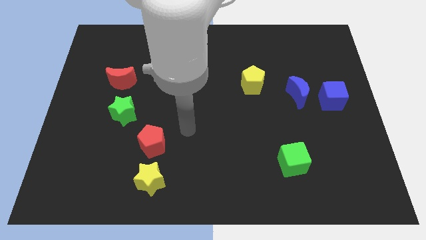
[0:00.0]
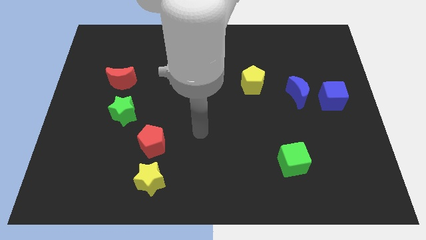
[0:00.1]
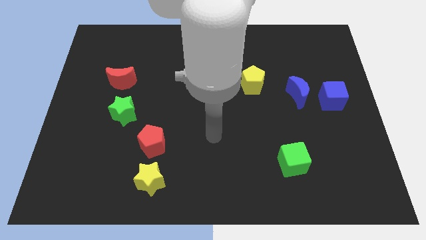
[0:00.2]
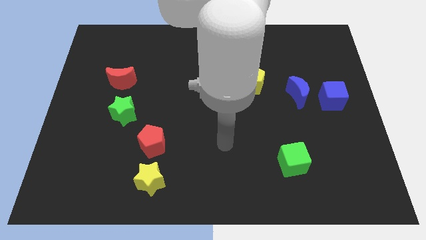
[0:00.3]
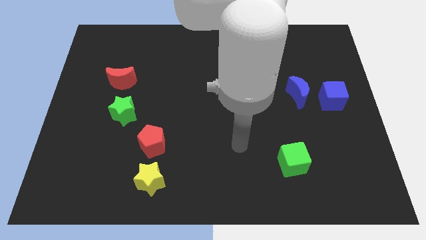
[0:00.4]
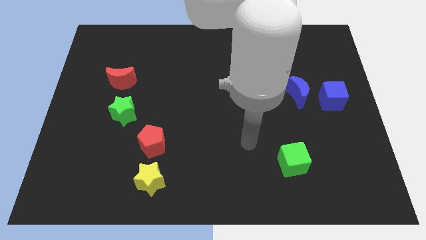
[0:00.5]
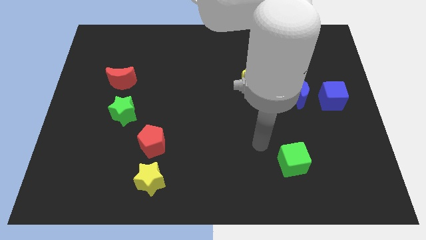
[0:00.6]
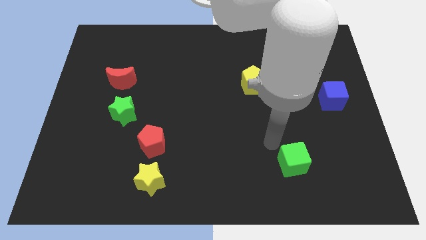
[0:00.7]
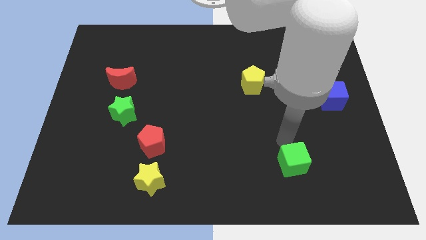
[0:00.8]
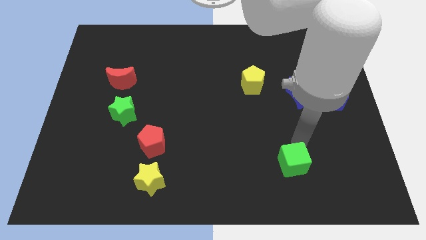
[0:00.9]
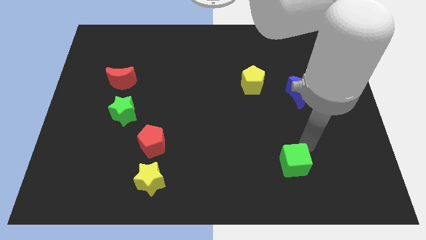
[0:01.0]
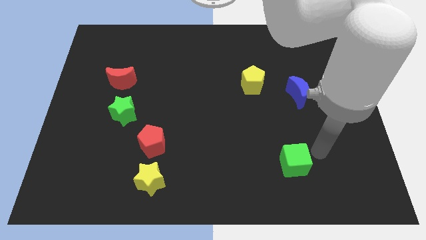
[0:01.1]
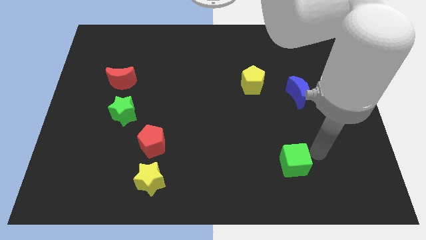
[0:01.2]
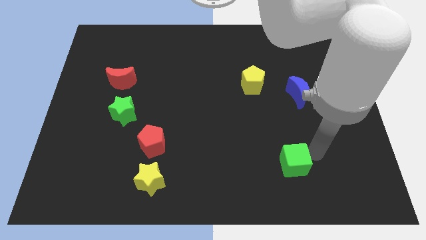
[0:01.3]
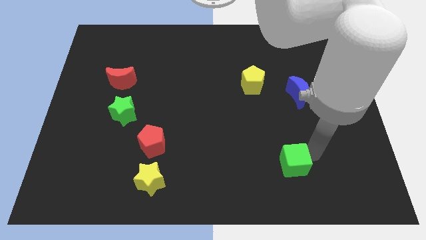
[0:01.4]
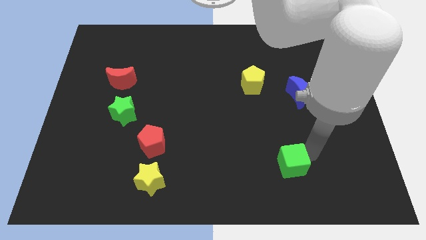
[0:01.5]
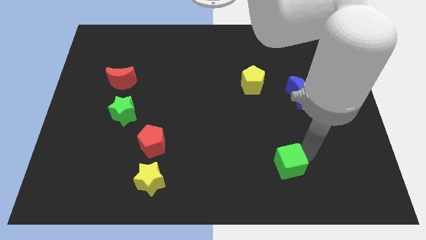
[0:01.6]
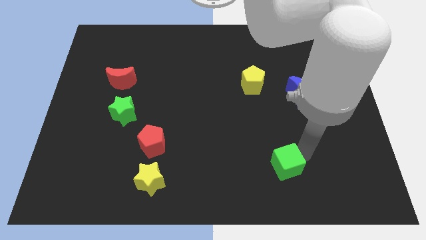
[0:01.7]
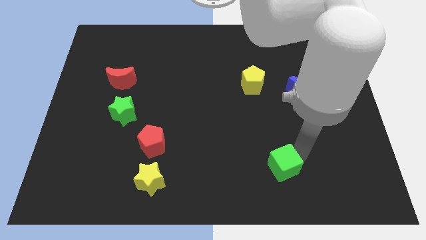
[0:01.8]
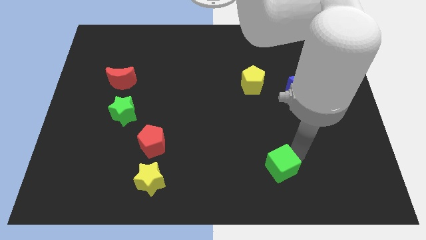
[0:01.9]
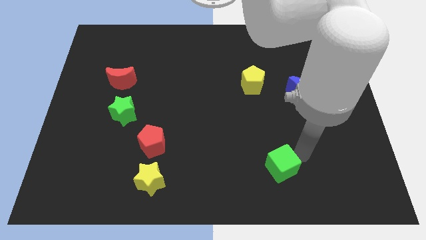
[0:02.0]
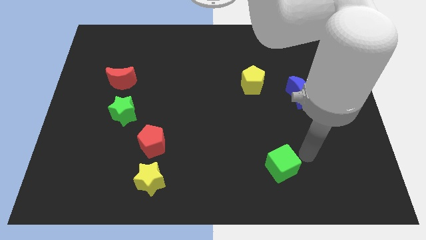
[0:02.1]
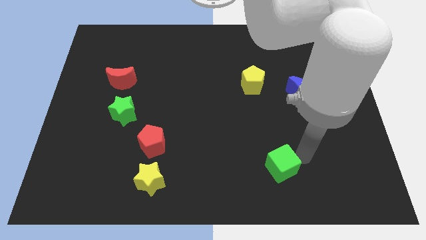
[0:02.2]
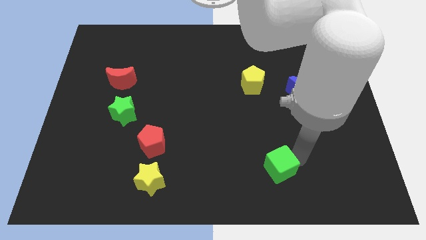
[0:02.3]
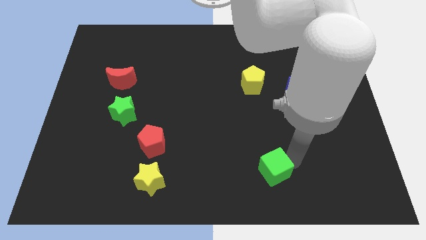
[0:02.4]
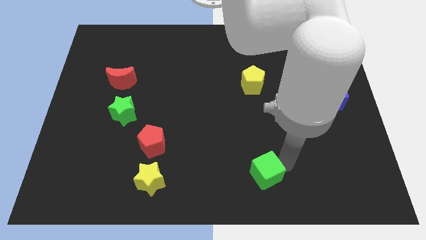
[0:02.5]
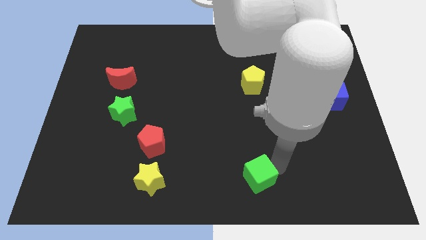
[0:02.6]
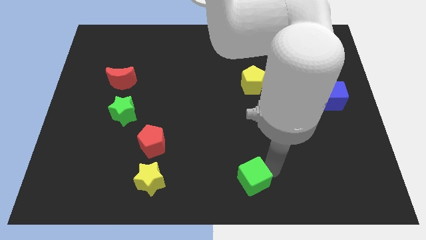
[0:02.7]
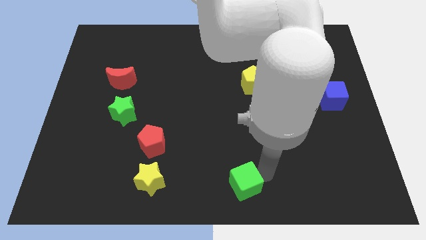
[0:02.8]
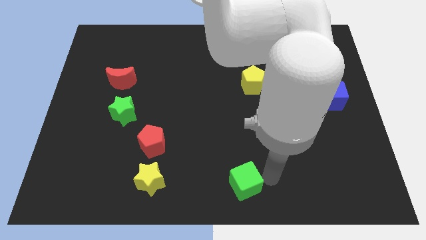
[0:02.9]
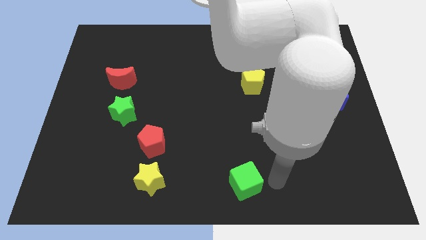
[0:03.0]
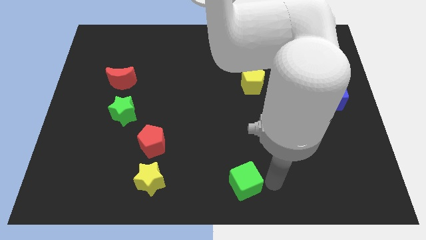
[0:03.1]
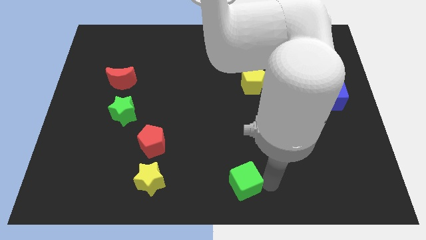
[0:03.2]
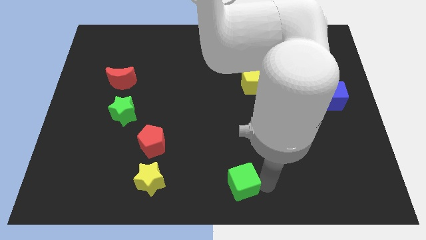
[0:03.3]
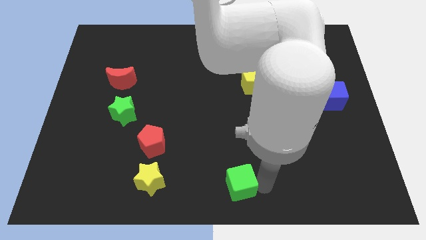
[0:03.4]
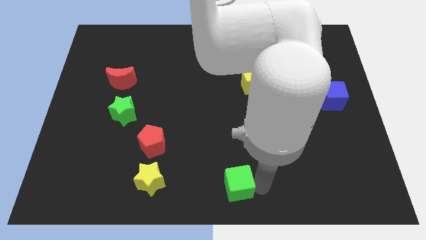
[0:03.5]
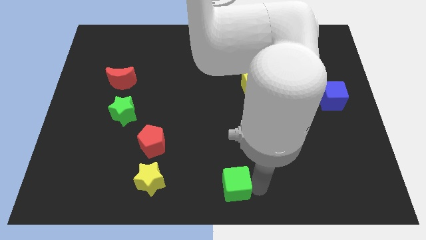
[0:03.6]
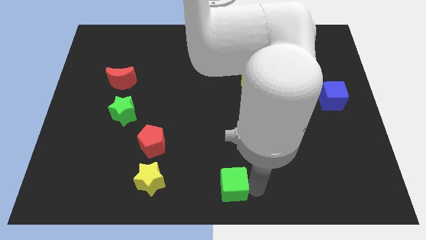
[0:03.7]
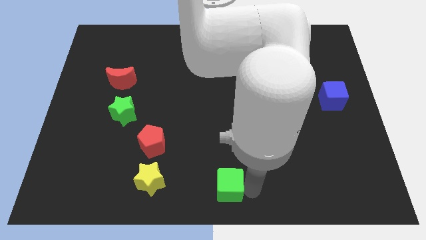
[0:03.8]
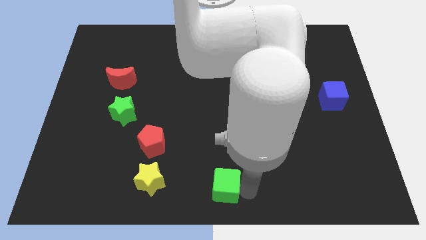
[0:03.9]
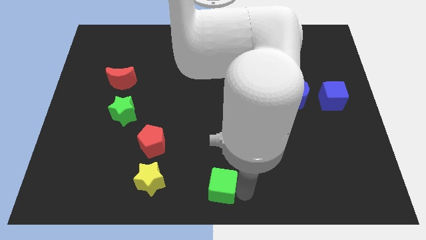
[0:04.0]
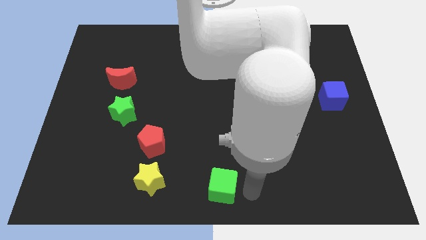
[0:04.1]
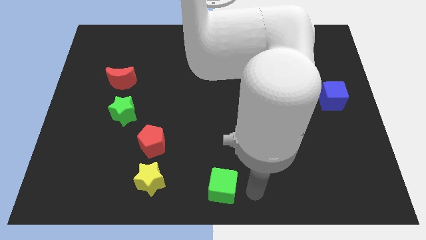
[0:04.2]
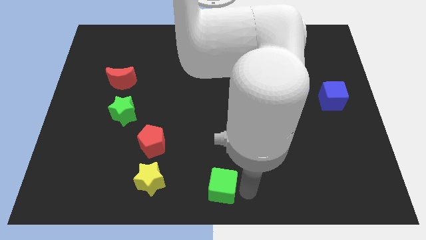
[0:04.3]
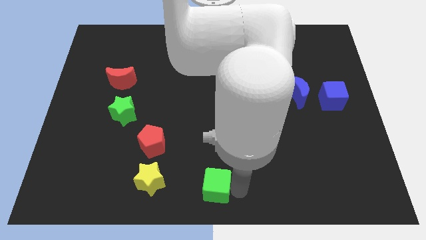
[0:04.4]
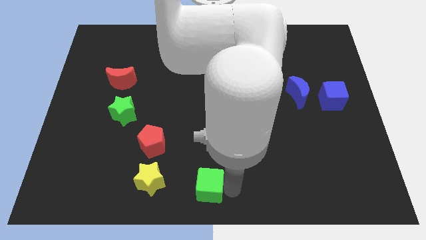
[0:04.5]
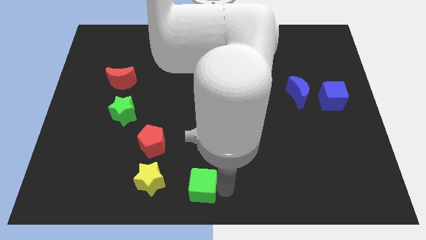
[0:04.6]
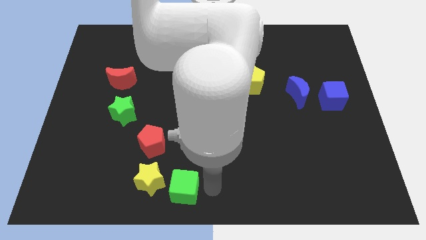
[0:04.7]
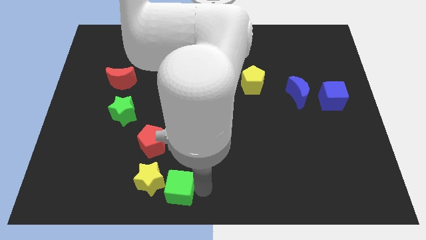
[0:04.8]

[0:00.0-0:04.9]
put the green cube towards the yellow star

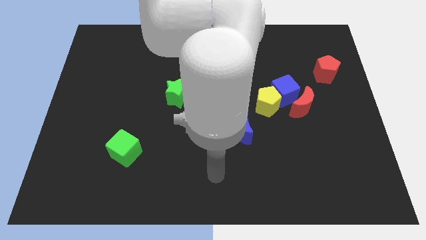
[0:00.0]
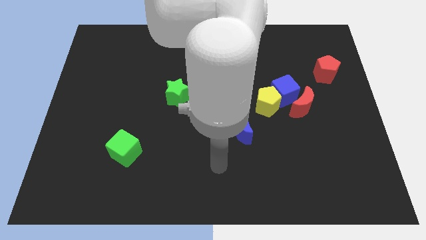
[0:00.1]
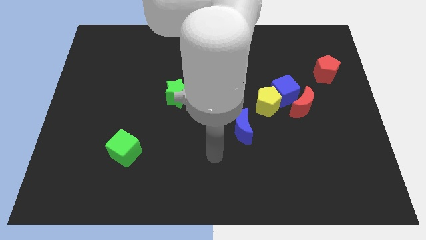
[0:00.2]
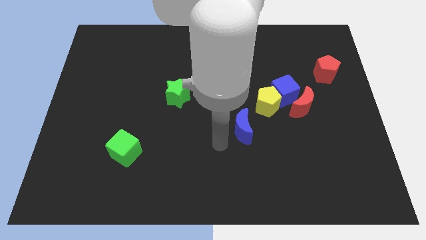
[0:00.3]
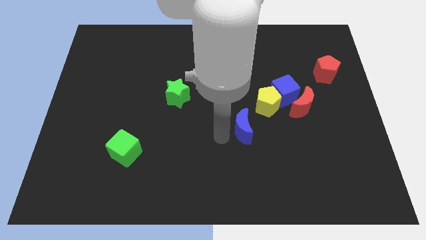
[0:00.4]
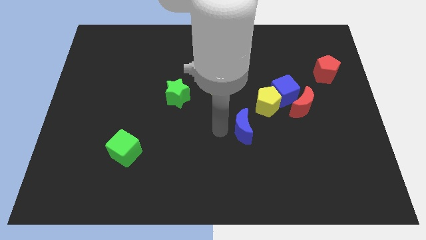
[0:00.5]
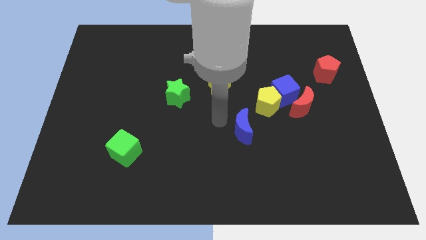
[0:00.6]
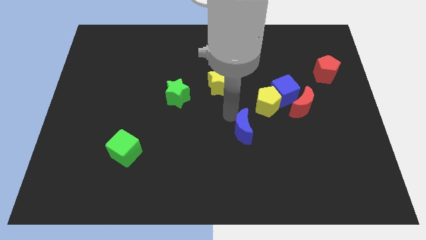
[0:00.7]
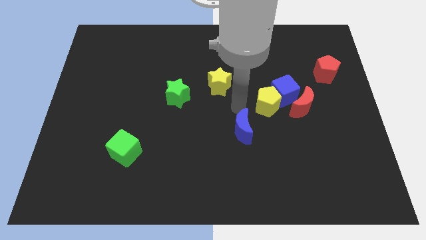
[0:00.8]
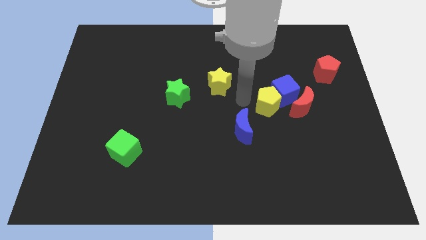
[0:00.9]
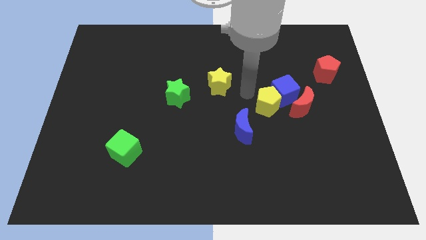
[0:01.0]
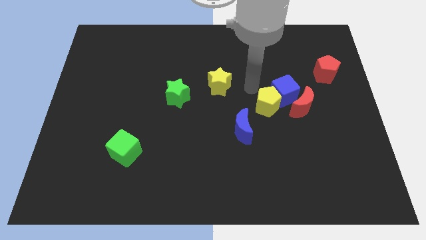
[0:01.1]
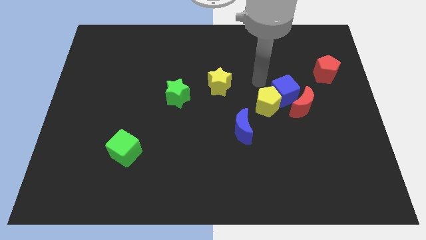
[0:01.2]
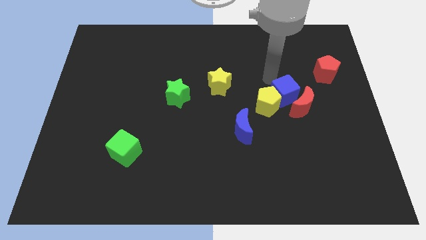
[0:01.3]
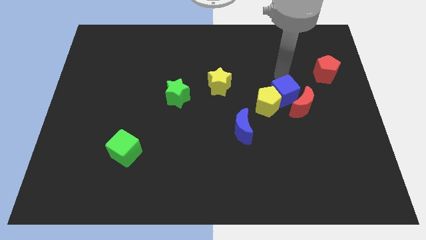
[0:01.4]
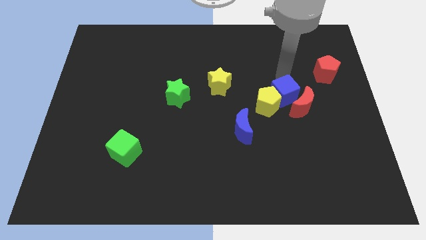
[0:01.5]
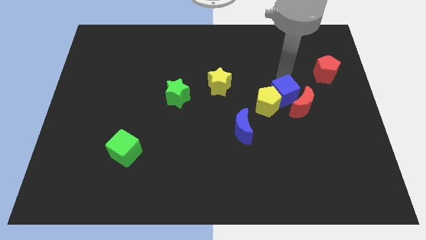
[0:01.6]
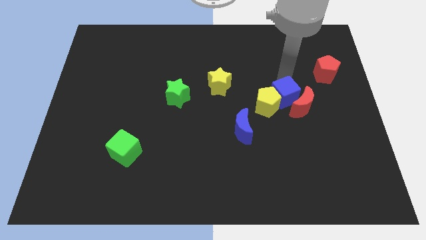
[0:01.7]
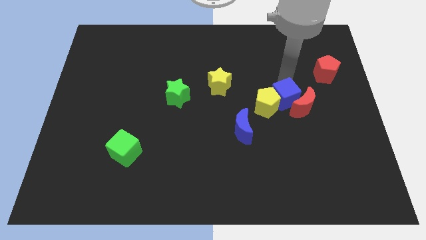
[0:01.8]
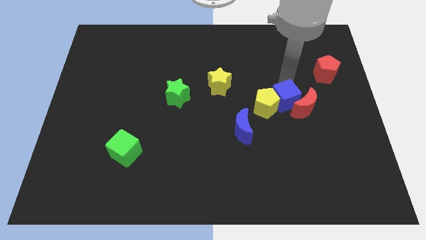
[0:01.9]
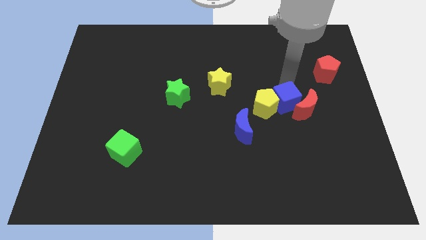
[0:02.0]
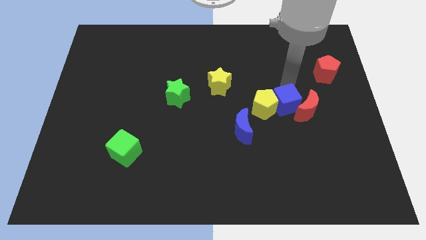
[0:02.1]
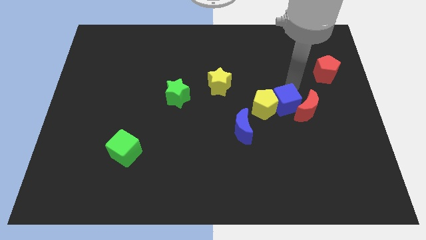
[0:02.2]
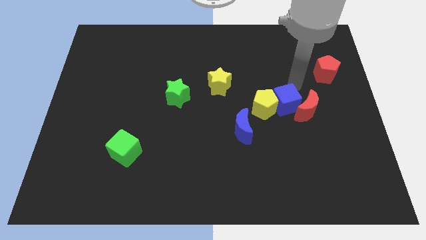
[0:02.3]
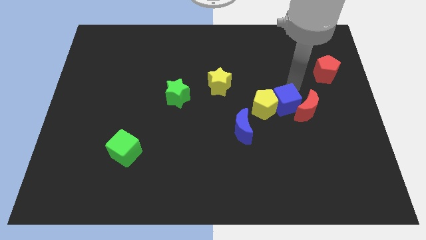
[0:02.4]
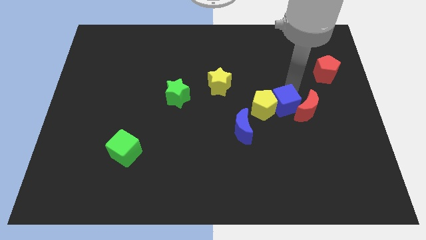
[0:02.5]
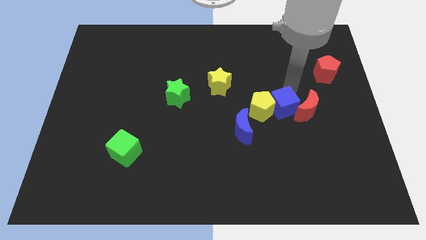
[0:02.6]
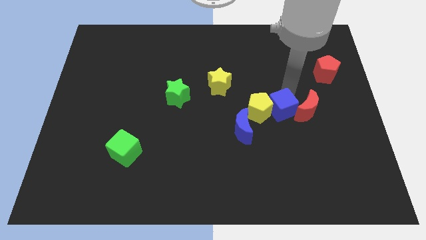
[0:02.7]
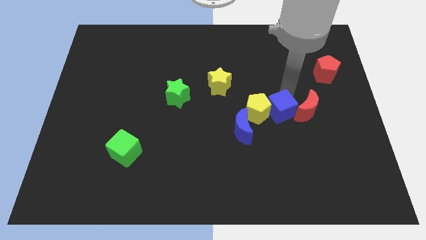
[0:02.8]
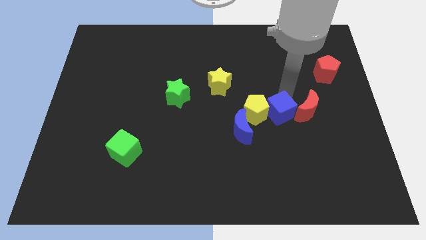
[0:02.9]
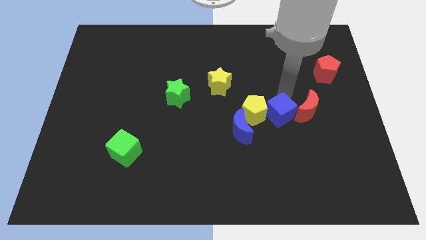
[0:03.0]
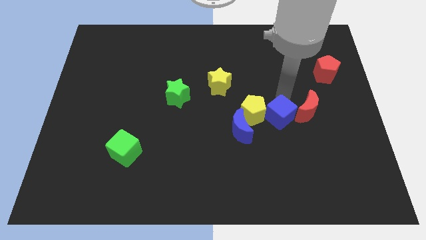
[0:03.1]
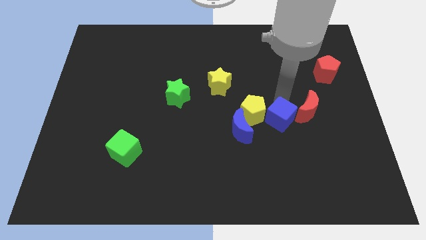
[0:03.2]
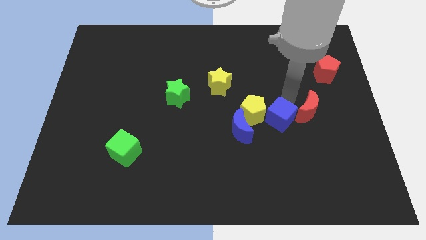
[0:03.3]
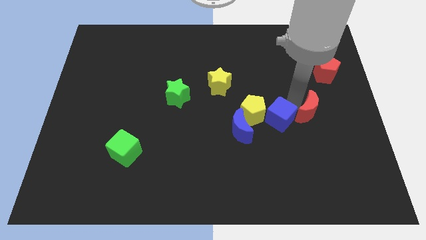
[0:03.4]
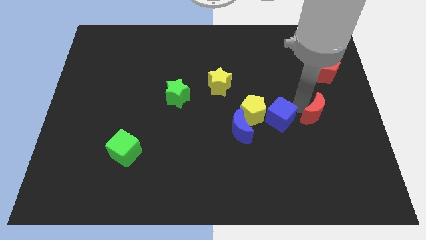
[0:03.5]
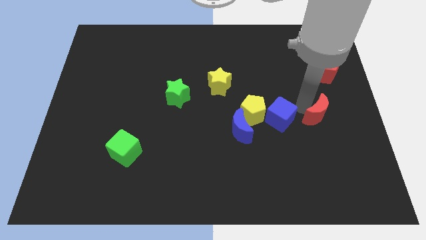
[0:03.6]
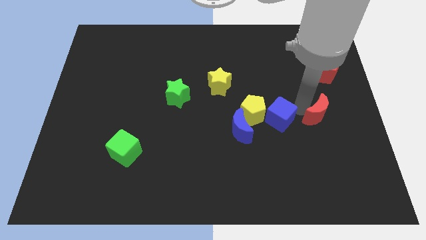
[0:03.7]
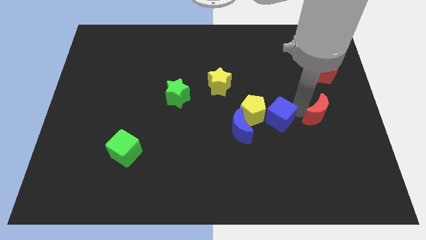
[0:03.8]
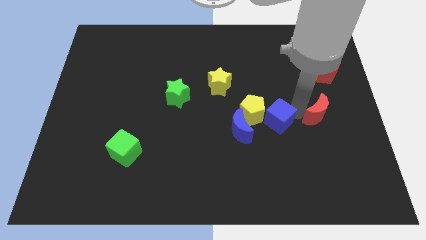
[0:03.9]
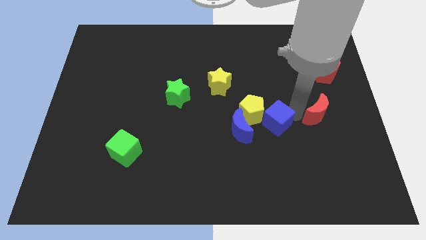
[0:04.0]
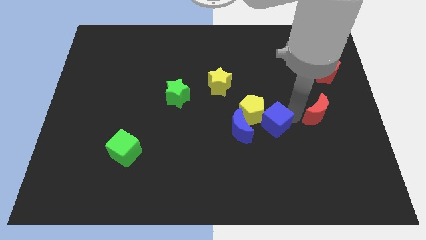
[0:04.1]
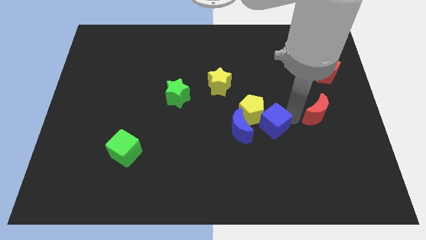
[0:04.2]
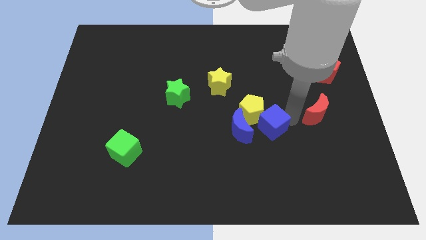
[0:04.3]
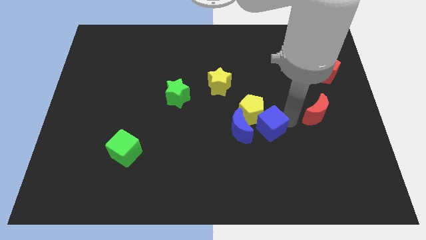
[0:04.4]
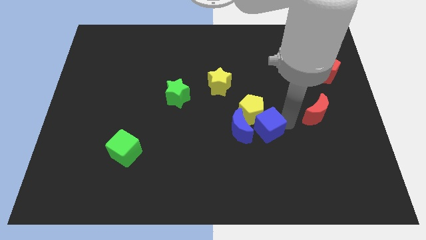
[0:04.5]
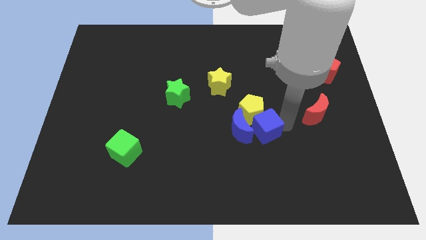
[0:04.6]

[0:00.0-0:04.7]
move the blue cube to the blue moon
